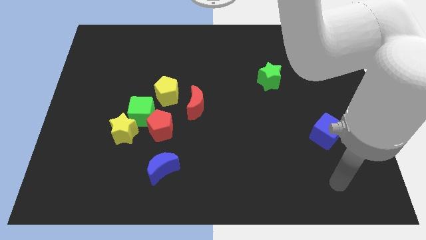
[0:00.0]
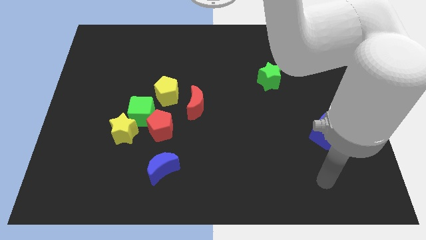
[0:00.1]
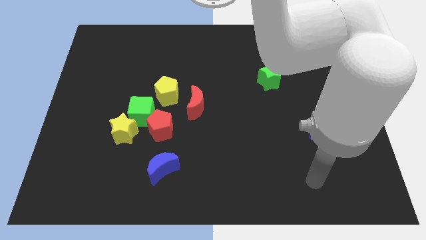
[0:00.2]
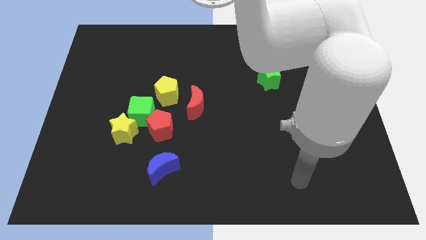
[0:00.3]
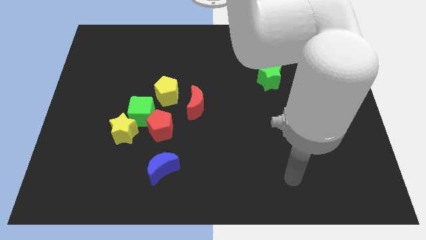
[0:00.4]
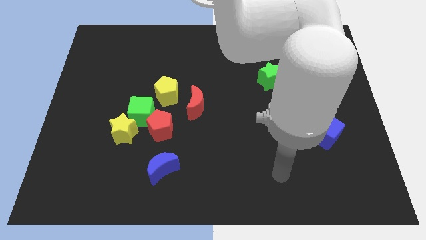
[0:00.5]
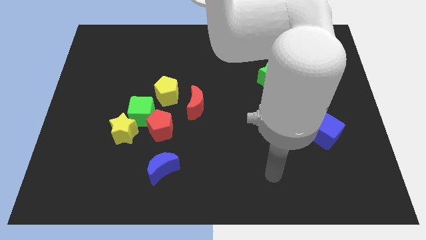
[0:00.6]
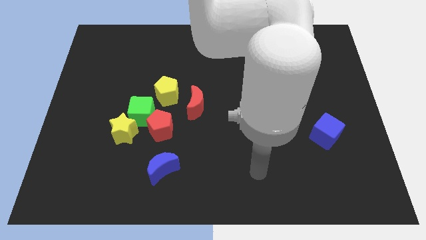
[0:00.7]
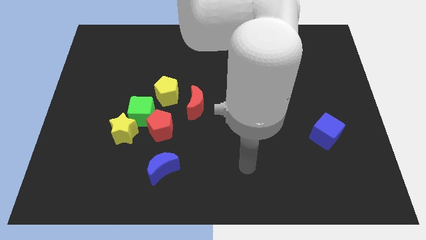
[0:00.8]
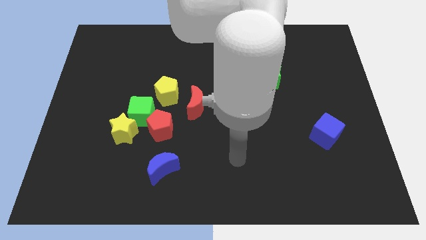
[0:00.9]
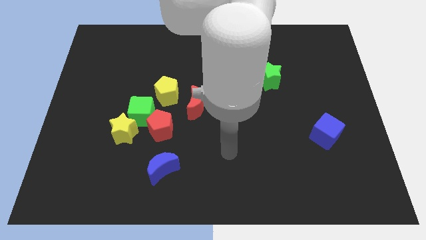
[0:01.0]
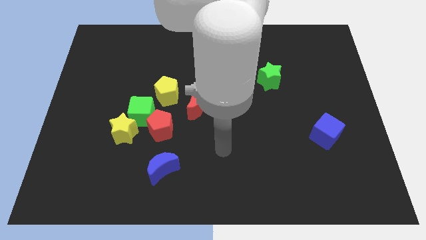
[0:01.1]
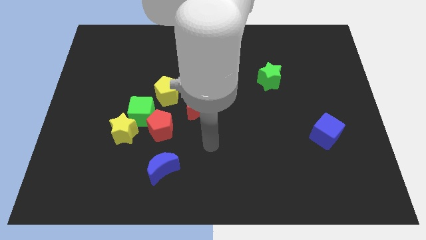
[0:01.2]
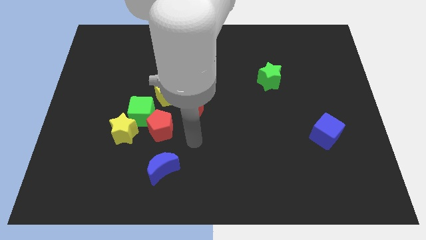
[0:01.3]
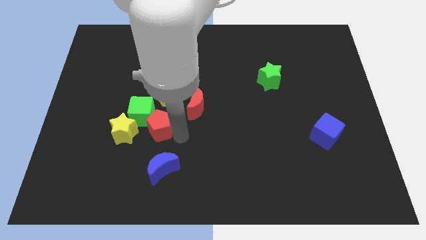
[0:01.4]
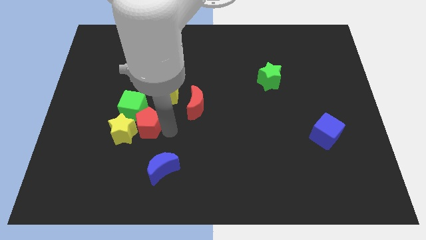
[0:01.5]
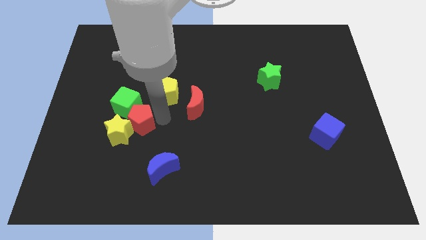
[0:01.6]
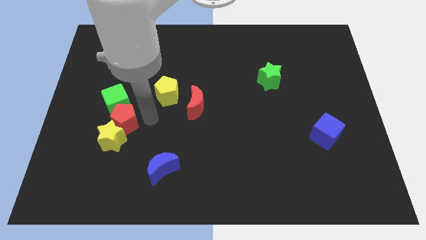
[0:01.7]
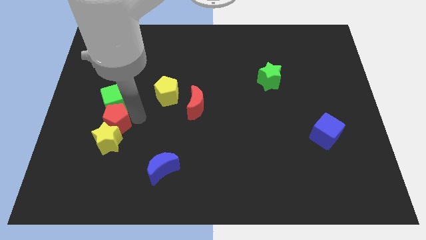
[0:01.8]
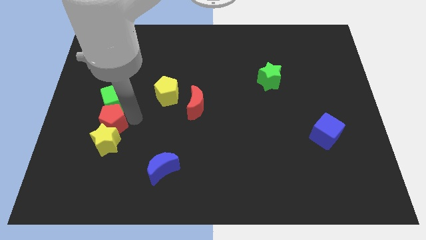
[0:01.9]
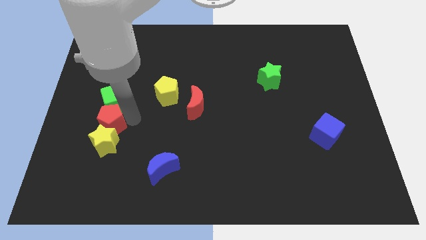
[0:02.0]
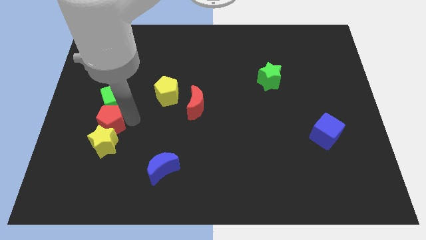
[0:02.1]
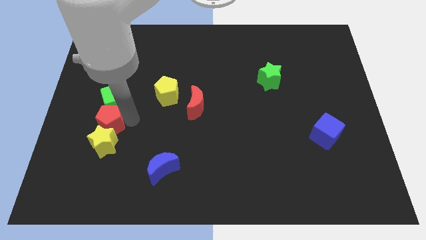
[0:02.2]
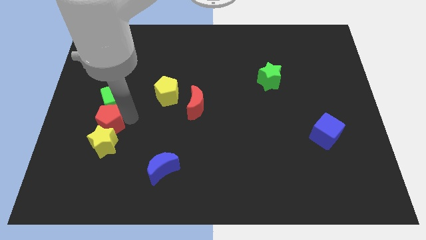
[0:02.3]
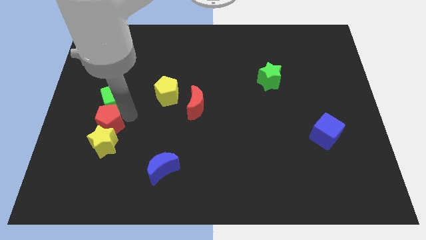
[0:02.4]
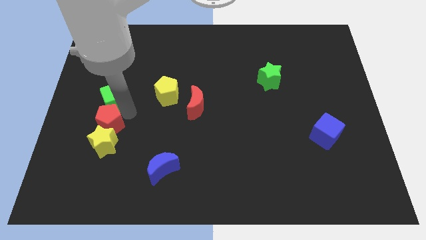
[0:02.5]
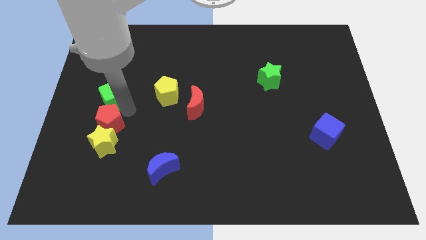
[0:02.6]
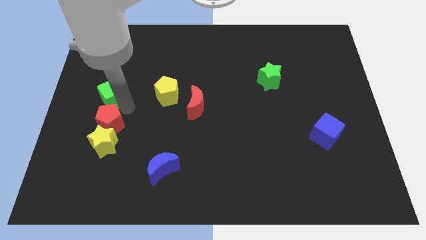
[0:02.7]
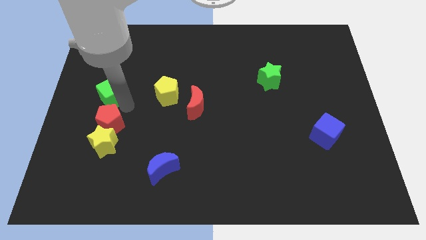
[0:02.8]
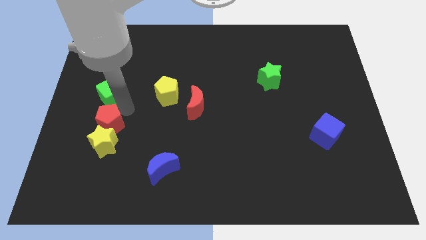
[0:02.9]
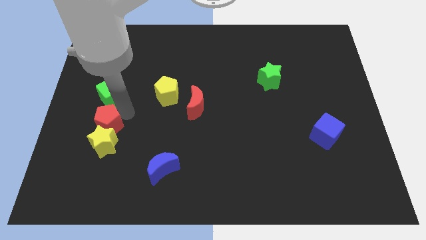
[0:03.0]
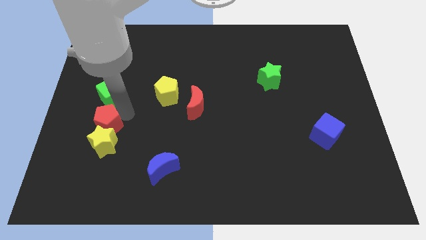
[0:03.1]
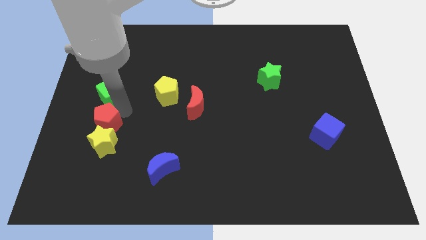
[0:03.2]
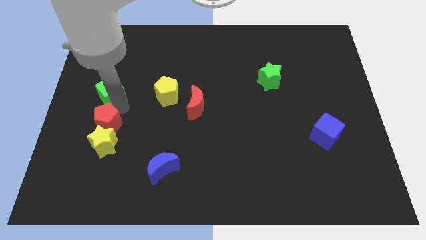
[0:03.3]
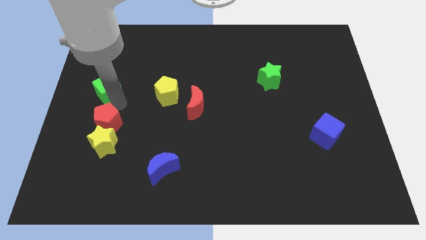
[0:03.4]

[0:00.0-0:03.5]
separate the green cube from the group of blocks

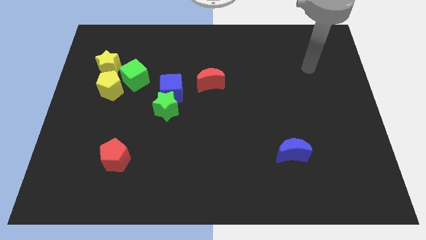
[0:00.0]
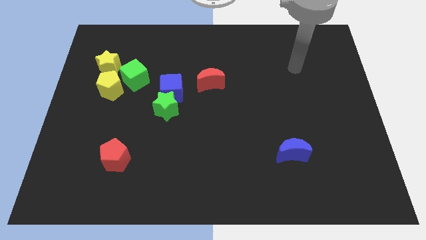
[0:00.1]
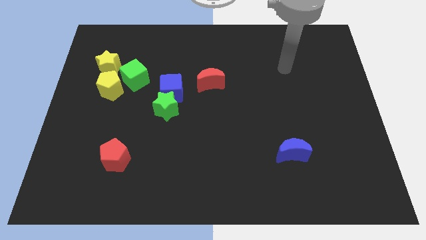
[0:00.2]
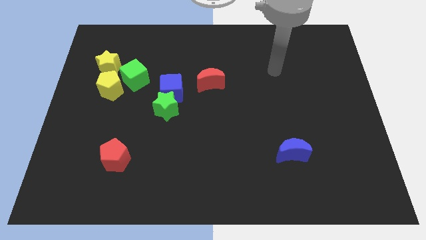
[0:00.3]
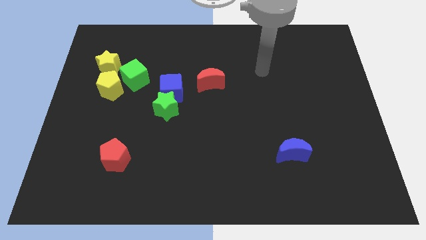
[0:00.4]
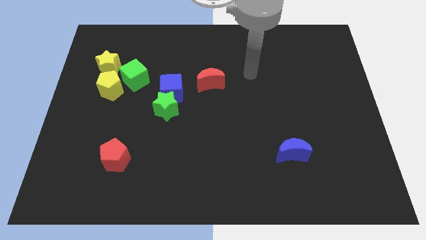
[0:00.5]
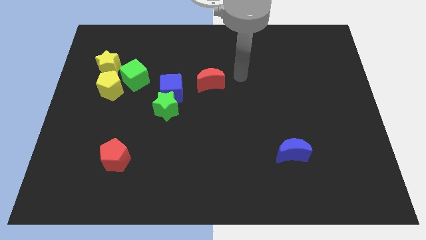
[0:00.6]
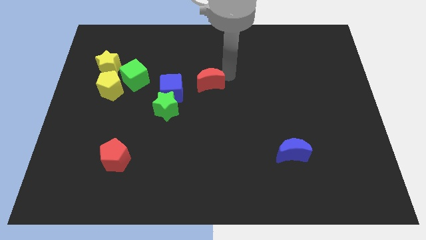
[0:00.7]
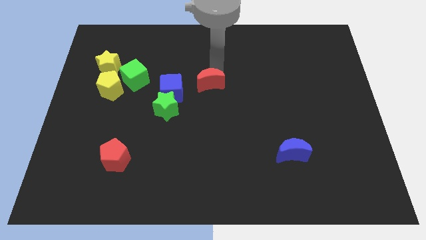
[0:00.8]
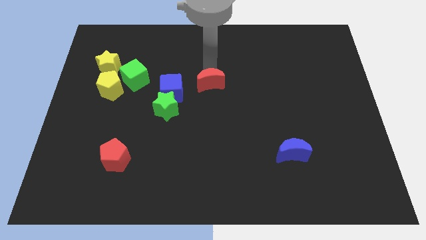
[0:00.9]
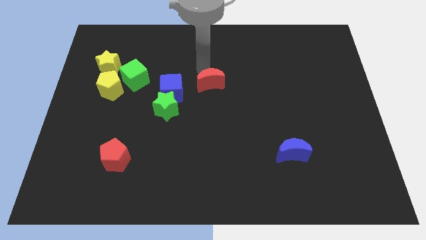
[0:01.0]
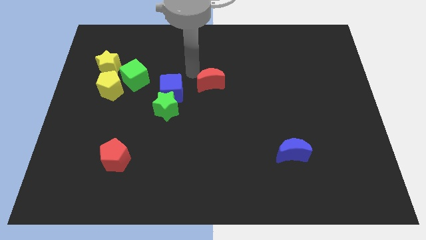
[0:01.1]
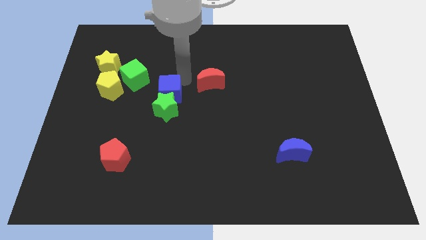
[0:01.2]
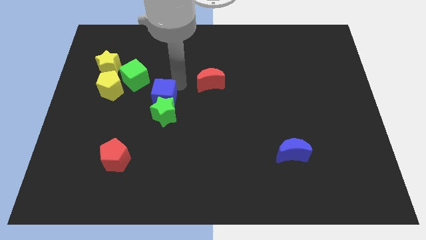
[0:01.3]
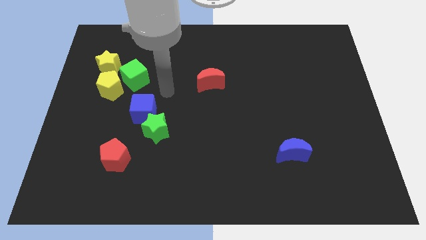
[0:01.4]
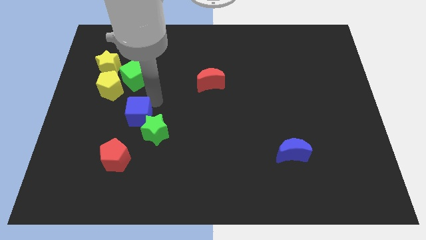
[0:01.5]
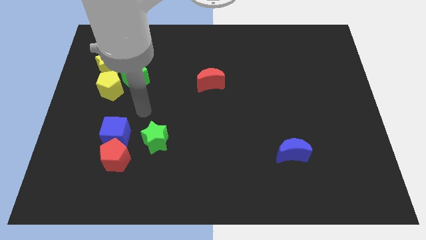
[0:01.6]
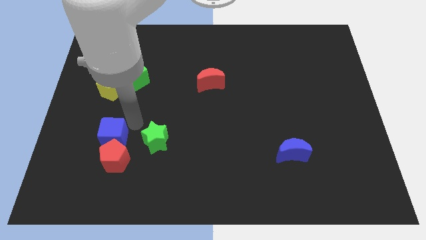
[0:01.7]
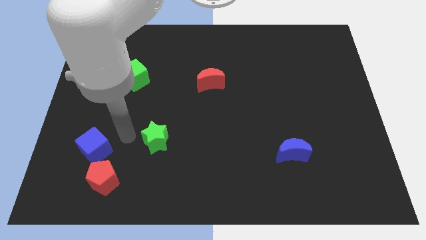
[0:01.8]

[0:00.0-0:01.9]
separate the green star from the blue cube

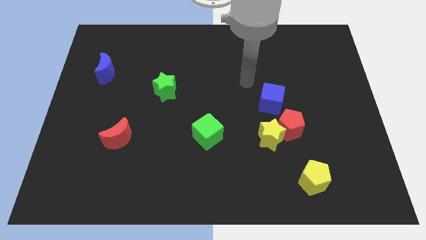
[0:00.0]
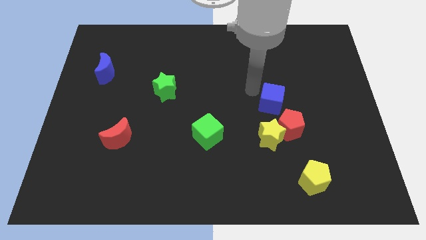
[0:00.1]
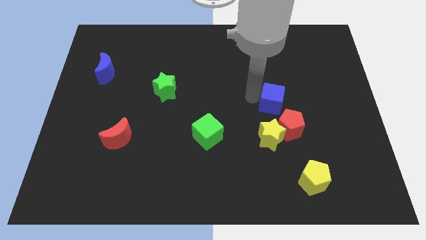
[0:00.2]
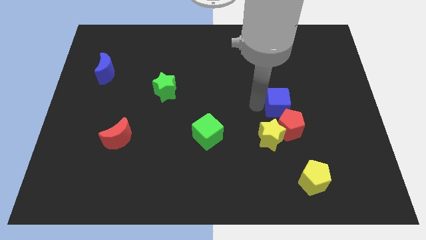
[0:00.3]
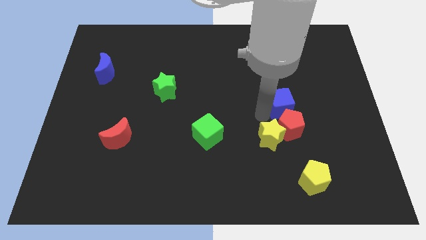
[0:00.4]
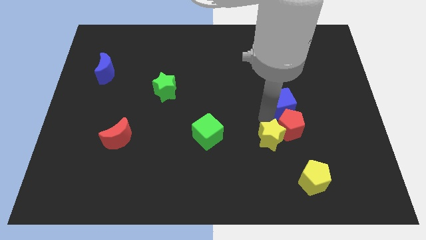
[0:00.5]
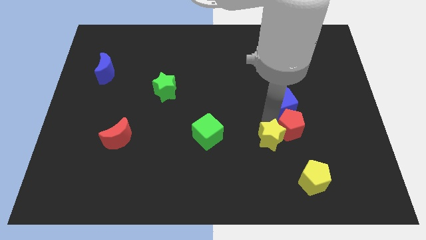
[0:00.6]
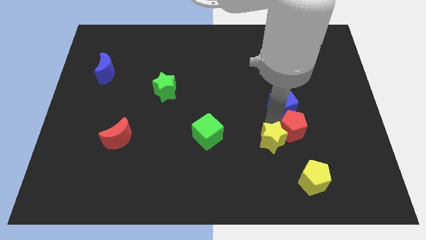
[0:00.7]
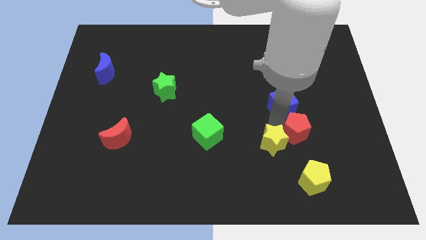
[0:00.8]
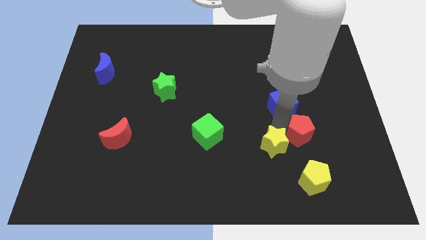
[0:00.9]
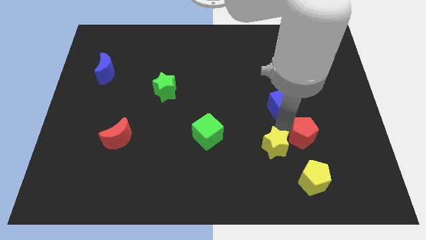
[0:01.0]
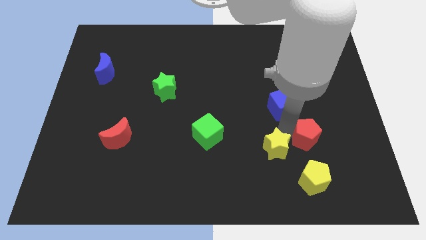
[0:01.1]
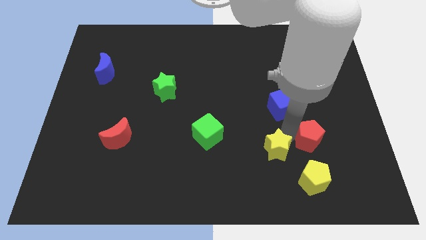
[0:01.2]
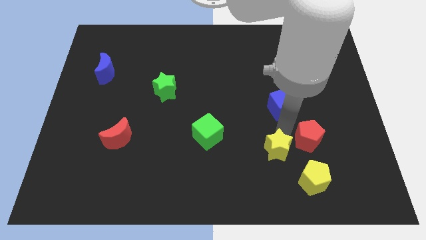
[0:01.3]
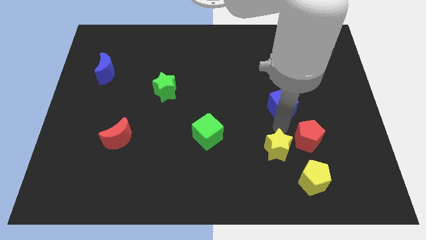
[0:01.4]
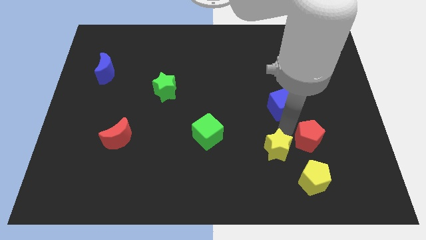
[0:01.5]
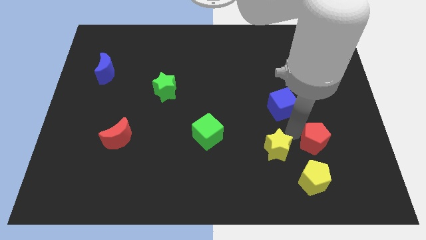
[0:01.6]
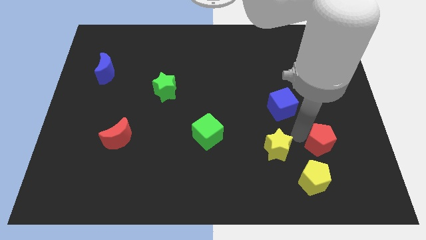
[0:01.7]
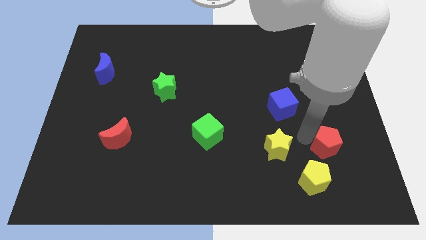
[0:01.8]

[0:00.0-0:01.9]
separate the red pentagon from the yellow star and blue cube

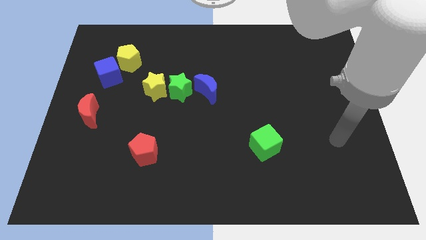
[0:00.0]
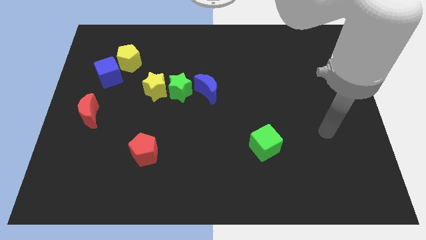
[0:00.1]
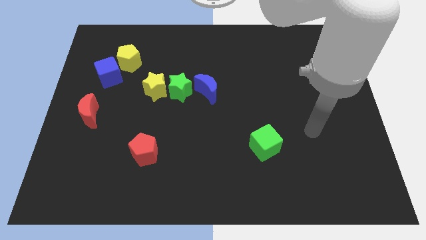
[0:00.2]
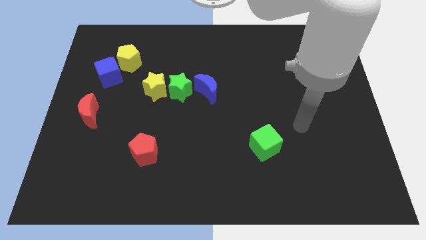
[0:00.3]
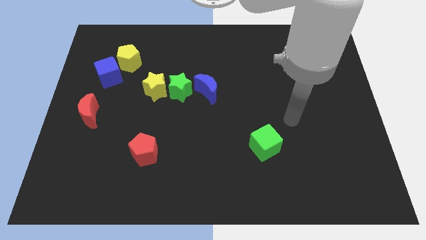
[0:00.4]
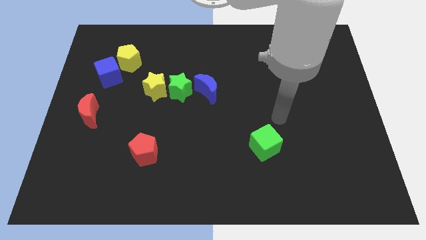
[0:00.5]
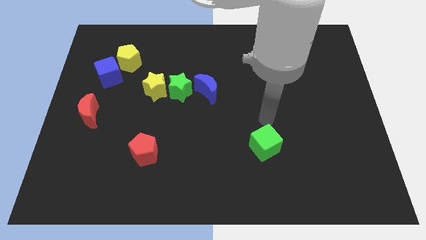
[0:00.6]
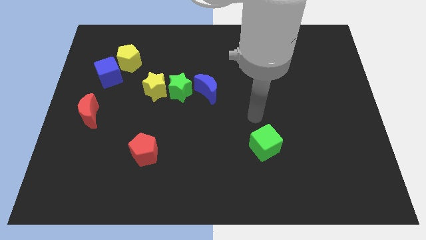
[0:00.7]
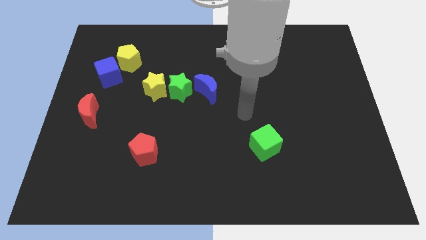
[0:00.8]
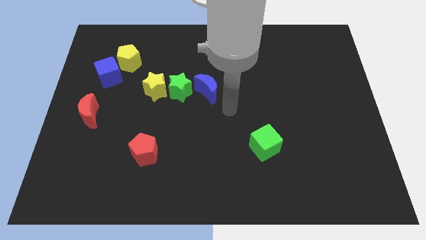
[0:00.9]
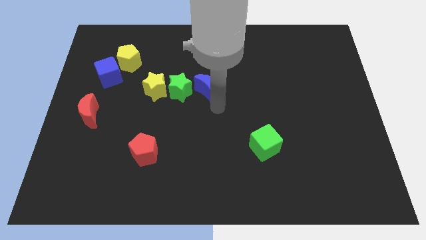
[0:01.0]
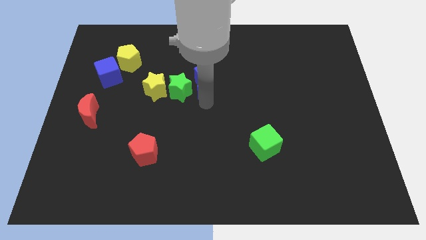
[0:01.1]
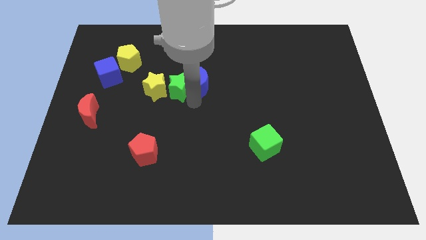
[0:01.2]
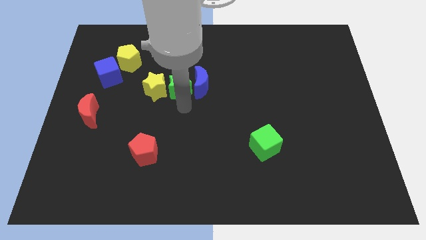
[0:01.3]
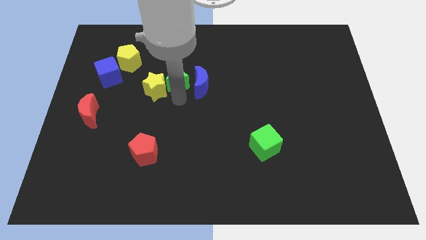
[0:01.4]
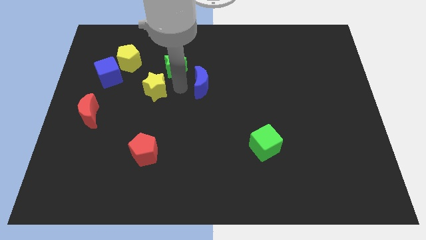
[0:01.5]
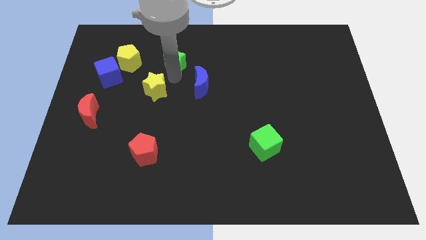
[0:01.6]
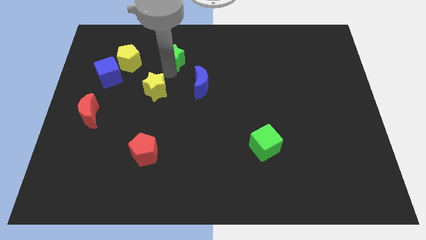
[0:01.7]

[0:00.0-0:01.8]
move the yellow star away from the green star

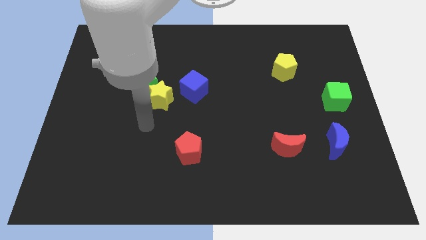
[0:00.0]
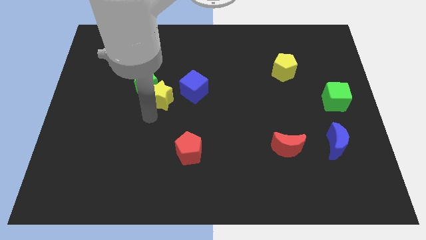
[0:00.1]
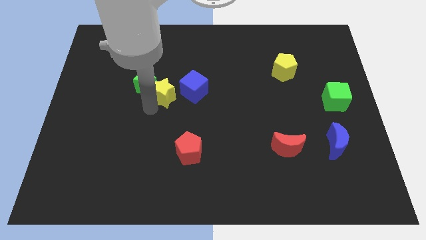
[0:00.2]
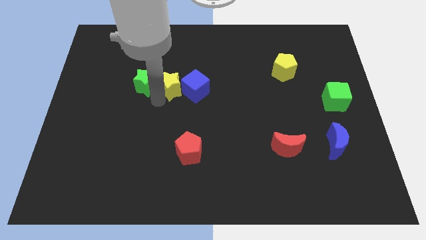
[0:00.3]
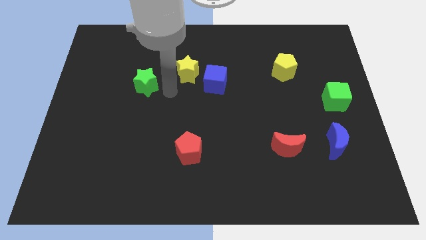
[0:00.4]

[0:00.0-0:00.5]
pull the green star apart from the yellow star
